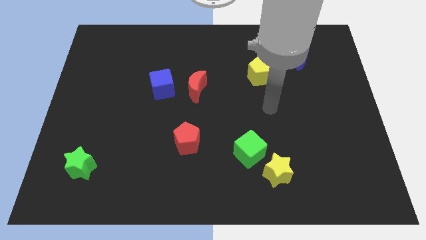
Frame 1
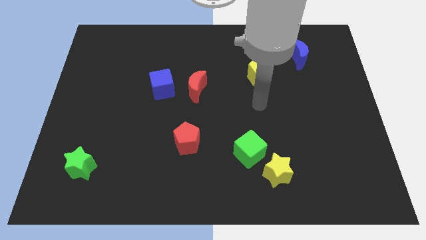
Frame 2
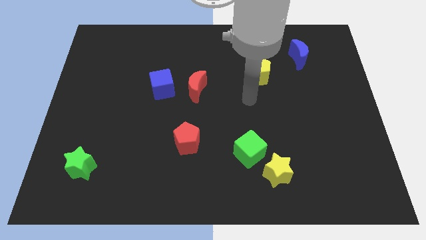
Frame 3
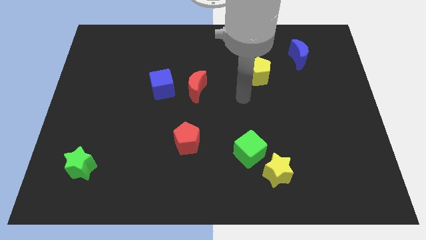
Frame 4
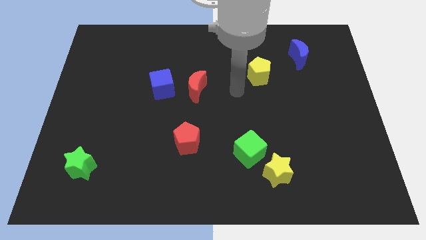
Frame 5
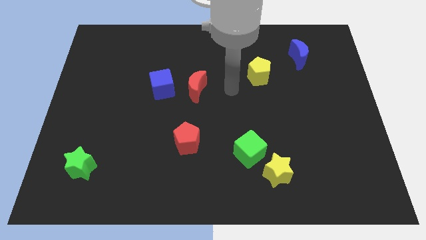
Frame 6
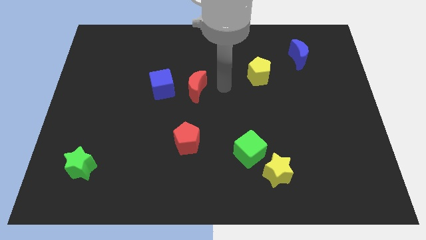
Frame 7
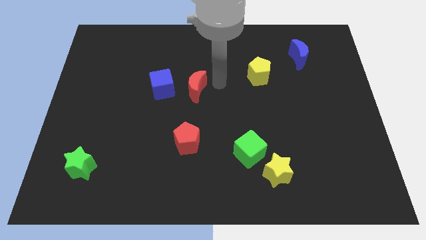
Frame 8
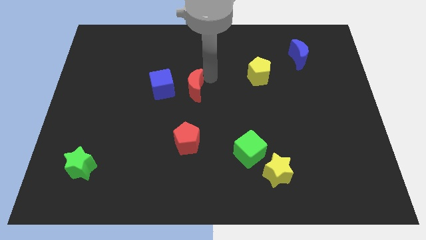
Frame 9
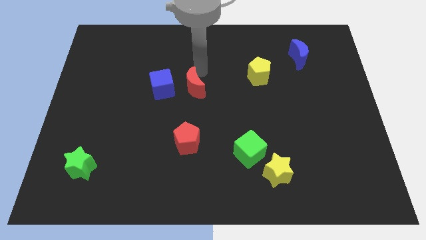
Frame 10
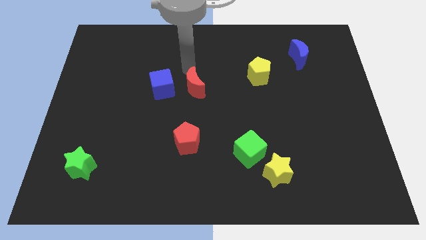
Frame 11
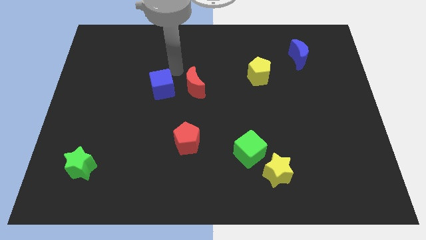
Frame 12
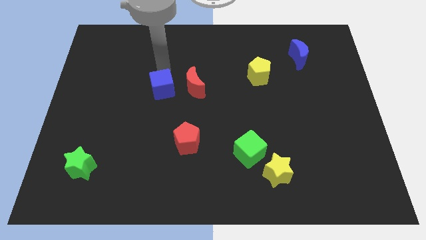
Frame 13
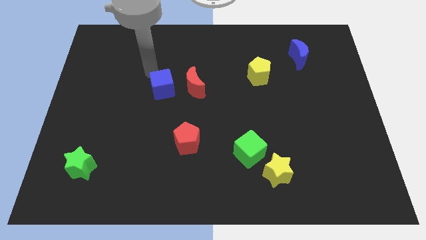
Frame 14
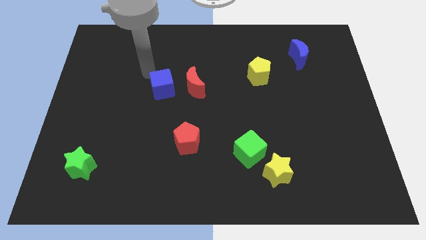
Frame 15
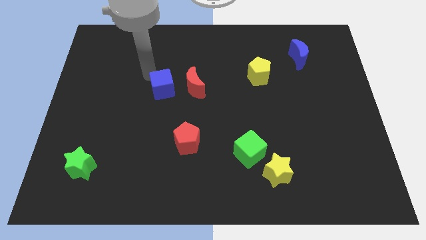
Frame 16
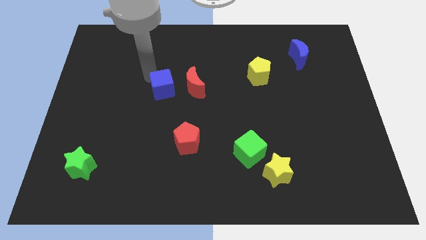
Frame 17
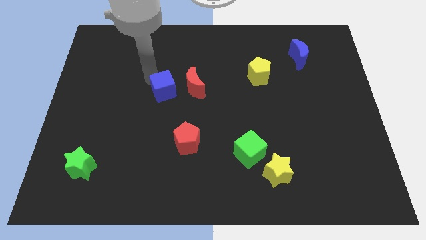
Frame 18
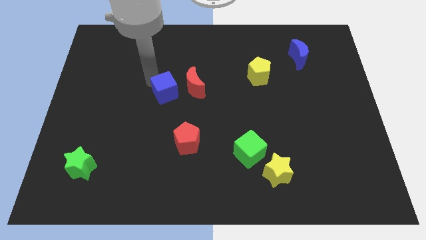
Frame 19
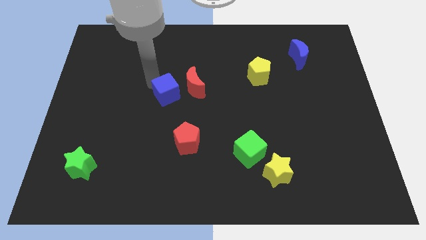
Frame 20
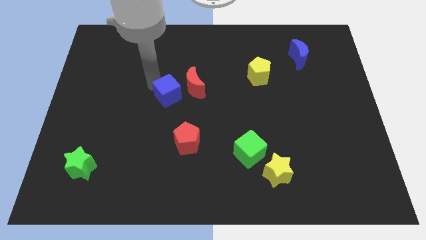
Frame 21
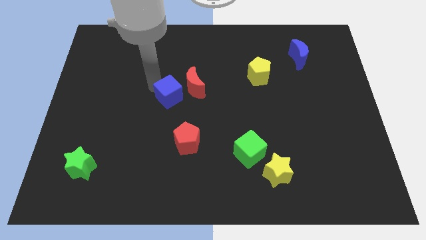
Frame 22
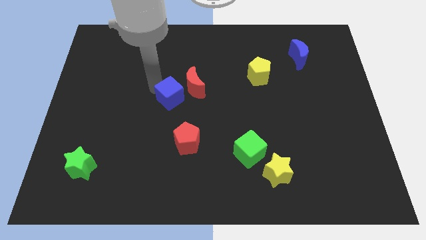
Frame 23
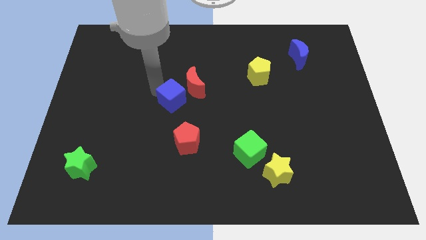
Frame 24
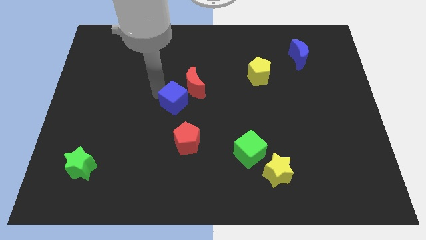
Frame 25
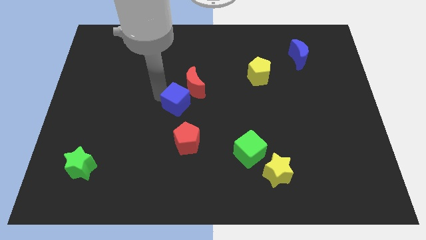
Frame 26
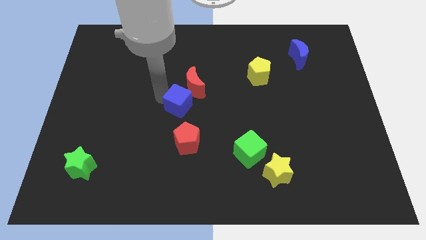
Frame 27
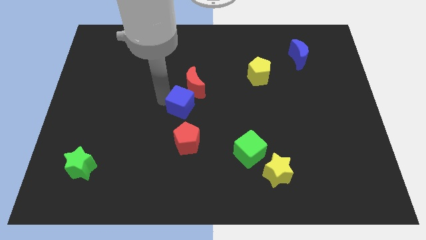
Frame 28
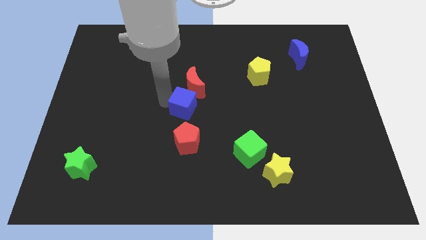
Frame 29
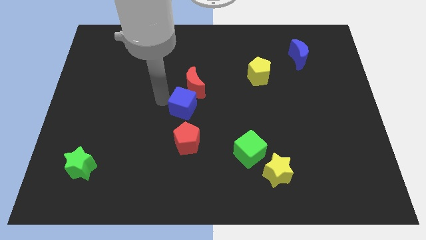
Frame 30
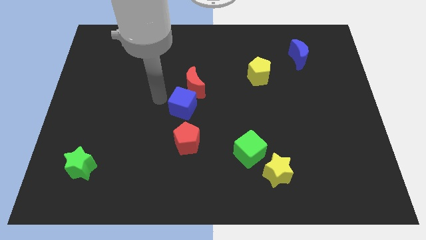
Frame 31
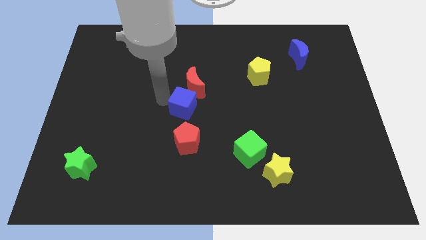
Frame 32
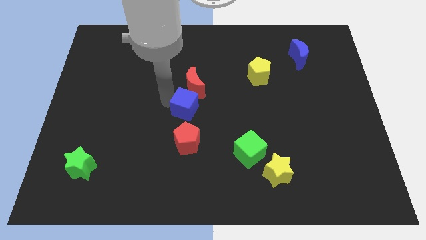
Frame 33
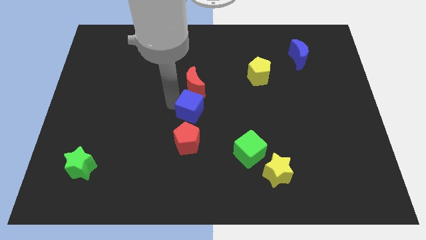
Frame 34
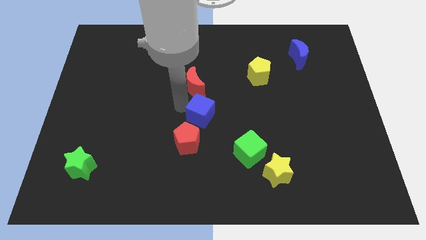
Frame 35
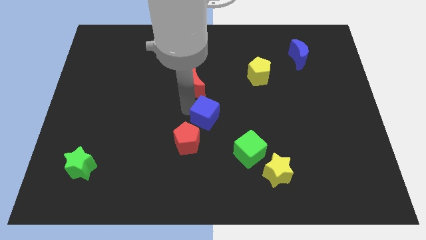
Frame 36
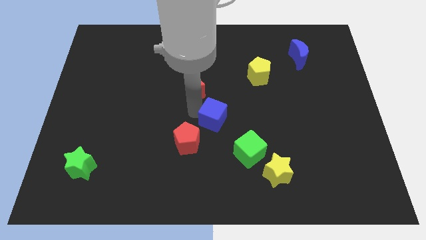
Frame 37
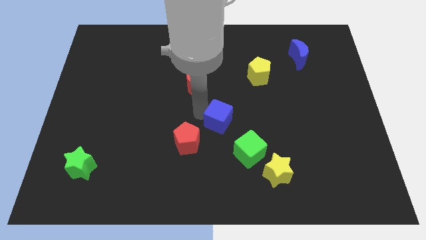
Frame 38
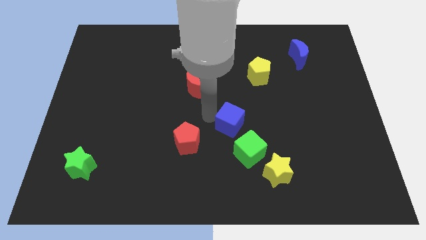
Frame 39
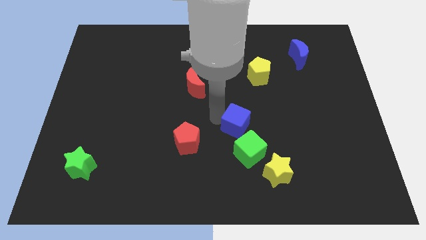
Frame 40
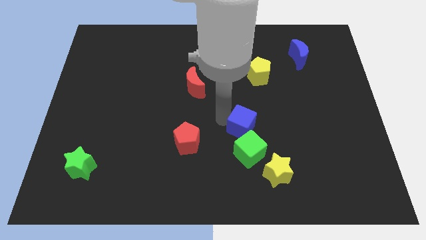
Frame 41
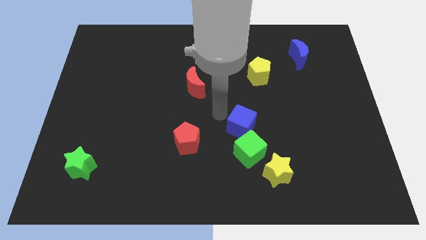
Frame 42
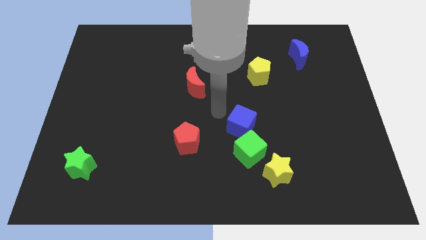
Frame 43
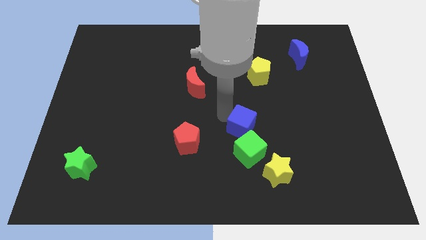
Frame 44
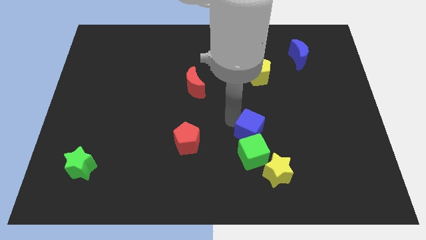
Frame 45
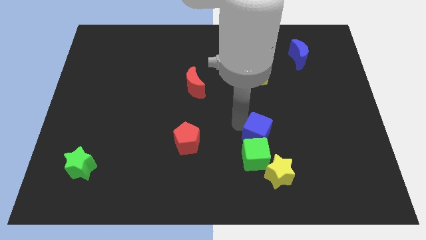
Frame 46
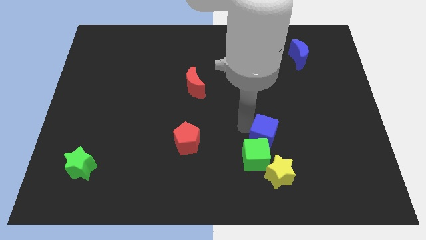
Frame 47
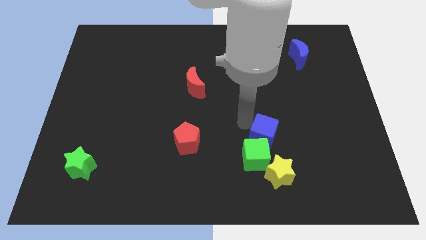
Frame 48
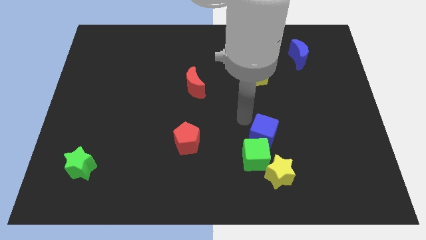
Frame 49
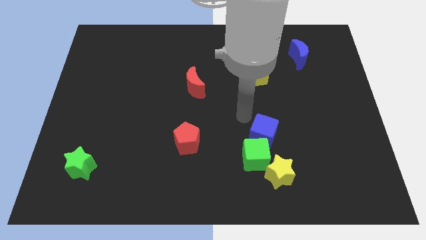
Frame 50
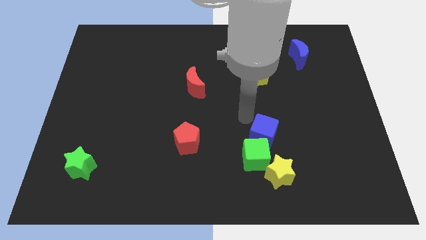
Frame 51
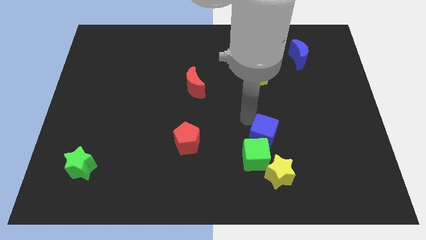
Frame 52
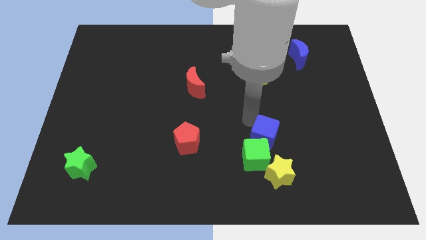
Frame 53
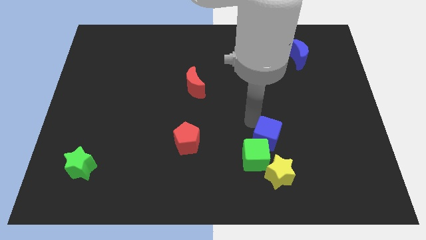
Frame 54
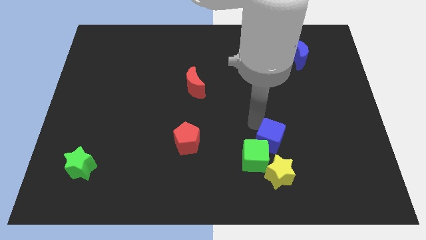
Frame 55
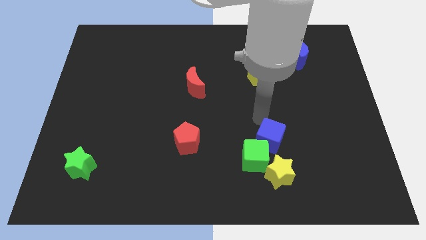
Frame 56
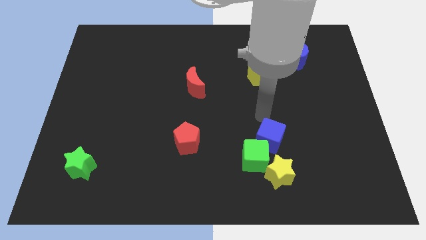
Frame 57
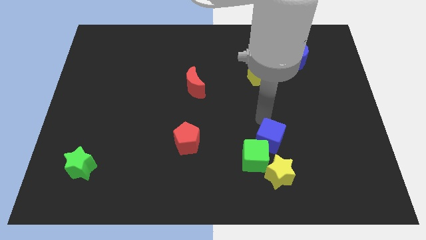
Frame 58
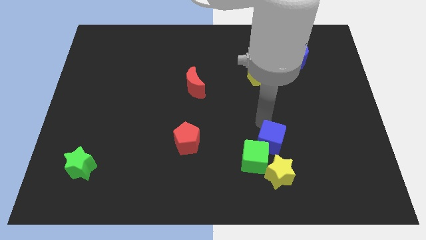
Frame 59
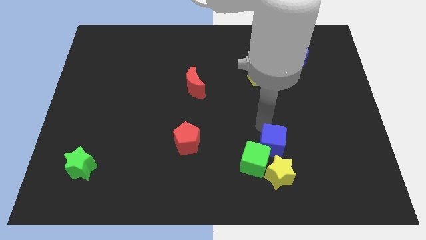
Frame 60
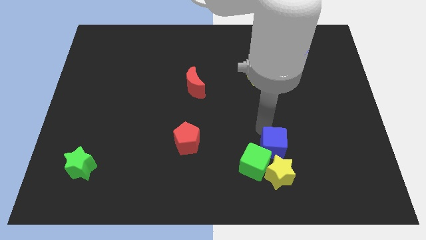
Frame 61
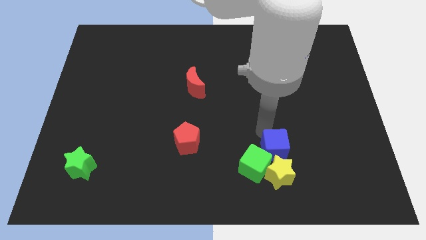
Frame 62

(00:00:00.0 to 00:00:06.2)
slide the blue cube towards the yellow star

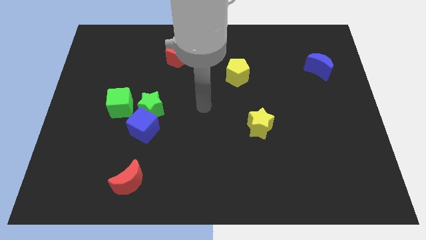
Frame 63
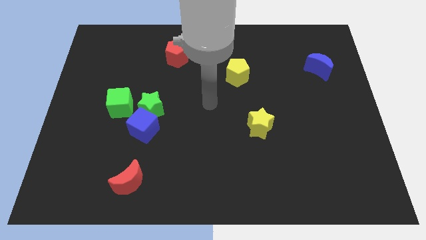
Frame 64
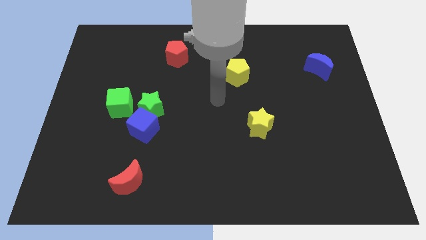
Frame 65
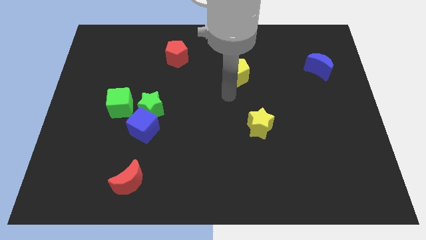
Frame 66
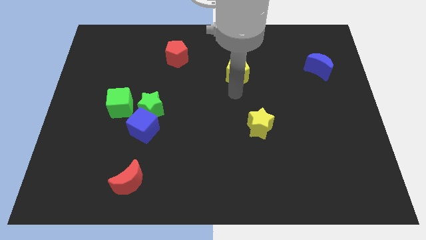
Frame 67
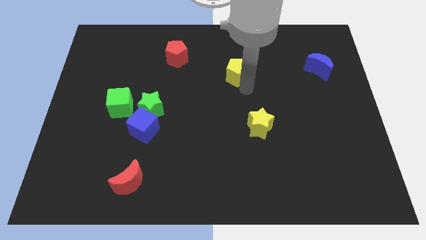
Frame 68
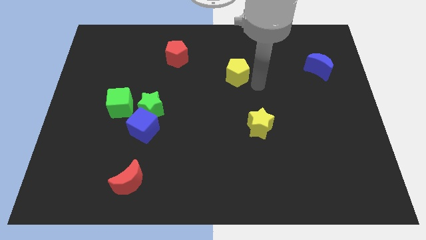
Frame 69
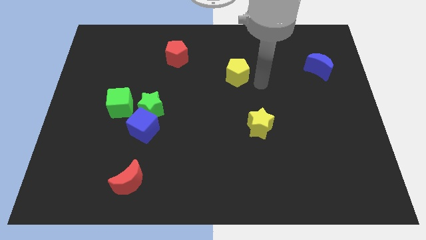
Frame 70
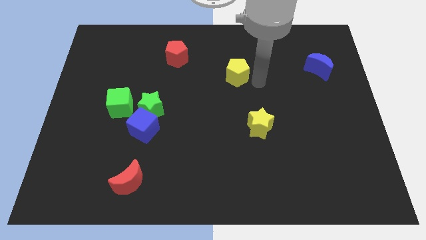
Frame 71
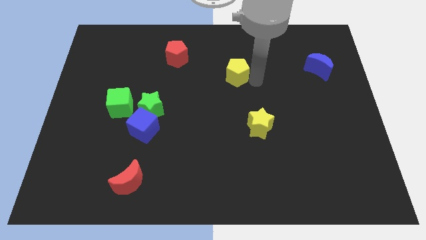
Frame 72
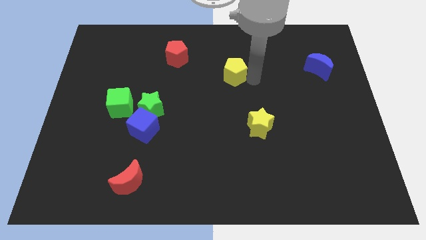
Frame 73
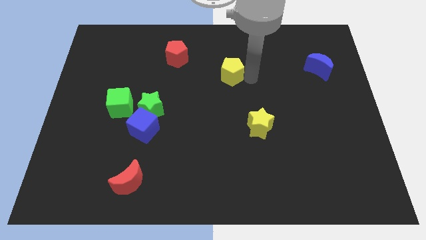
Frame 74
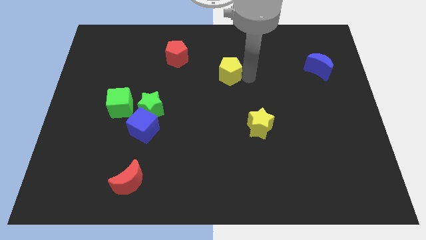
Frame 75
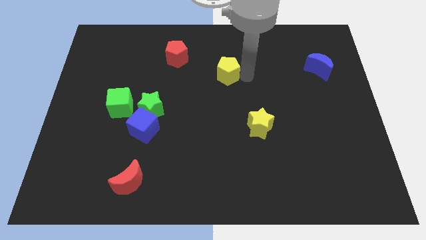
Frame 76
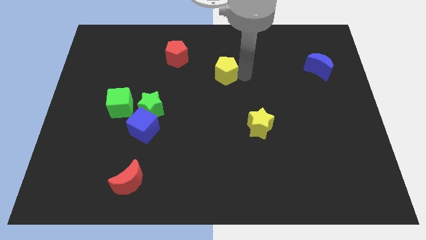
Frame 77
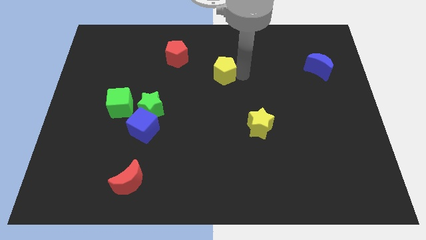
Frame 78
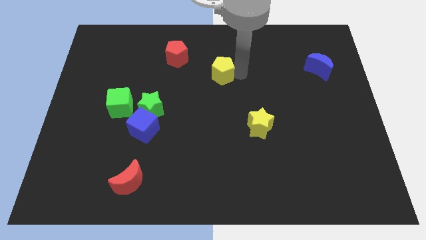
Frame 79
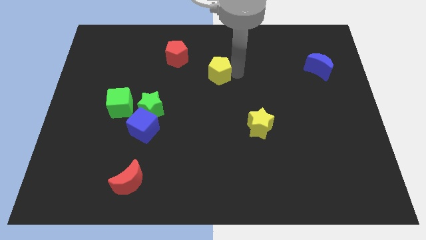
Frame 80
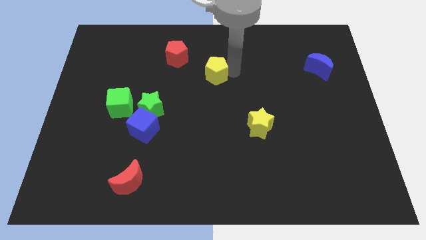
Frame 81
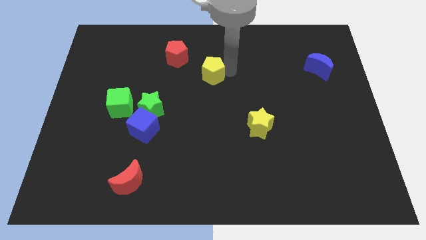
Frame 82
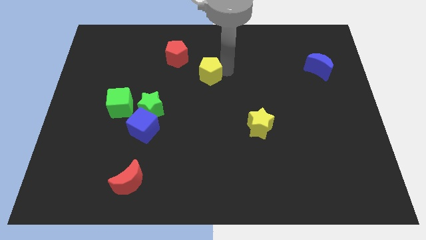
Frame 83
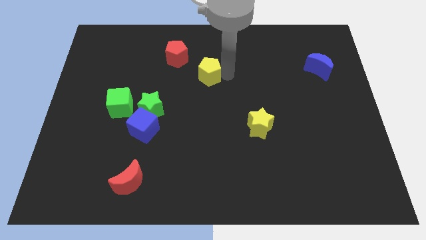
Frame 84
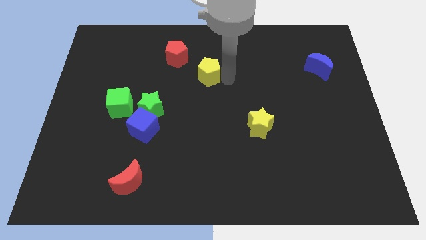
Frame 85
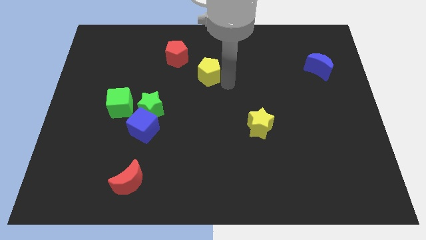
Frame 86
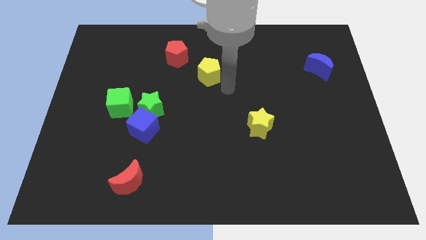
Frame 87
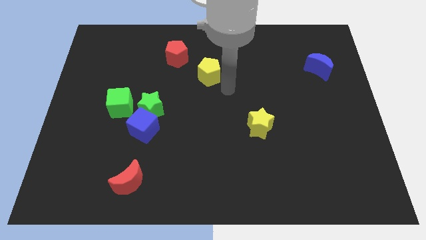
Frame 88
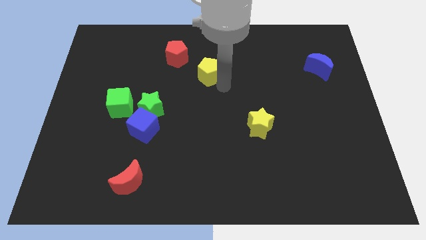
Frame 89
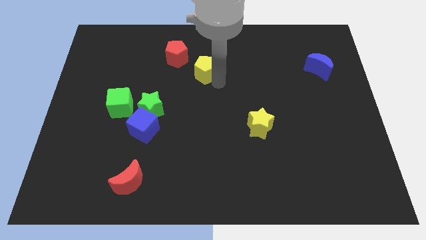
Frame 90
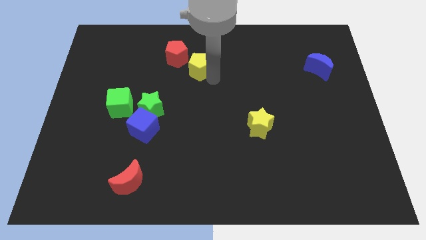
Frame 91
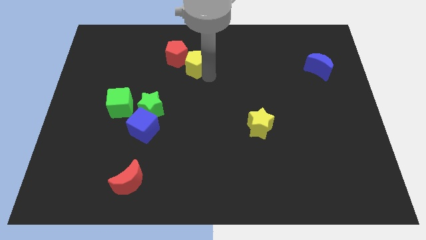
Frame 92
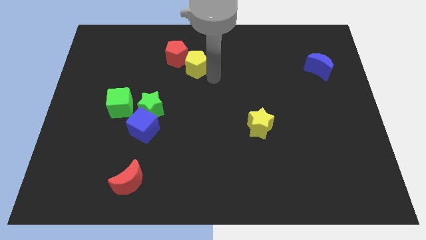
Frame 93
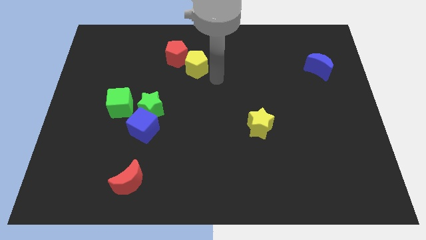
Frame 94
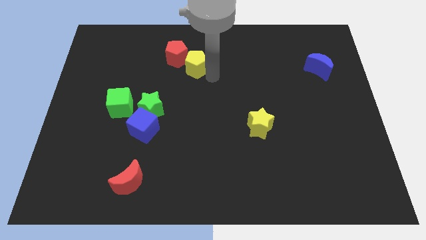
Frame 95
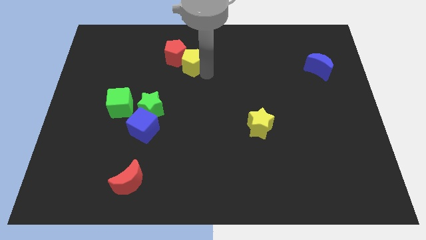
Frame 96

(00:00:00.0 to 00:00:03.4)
push the yellow pentagon close to the red pentagon
